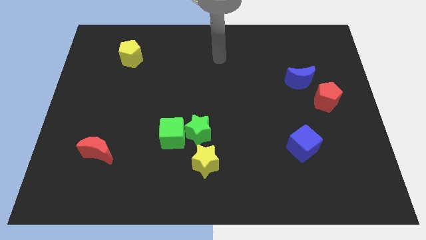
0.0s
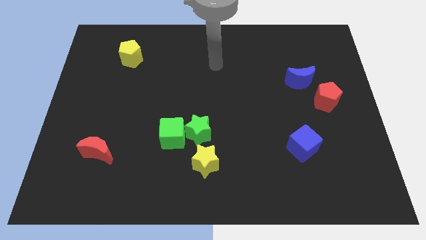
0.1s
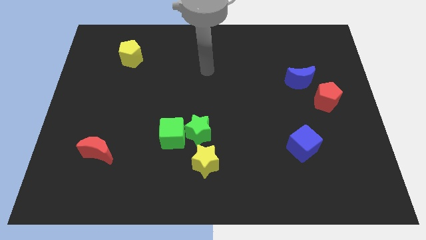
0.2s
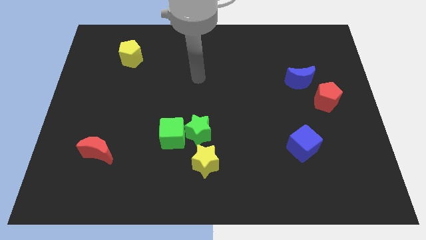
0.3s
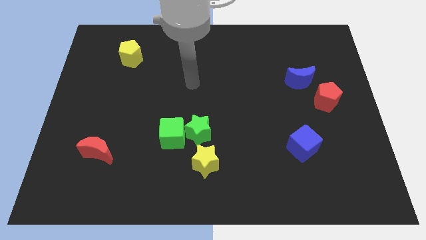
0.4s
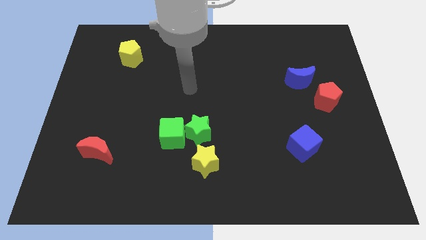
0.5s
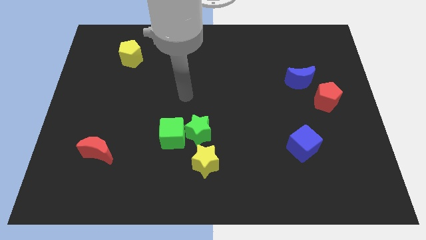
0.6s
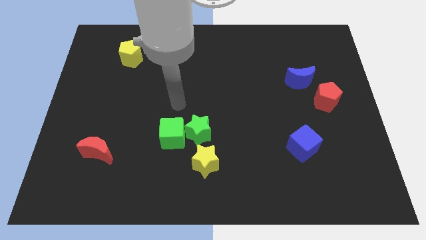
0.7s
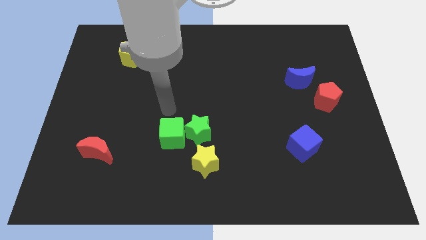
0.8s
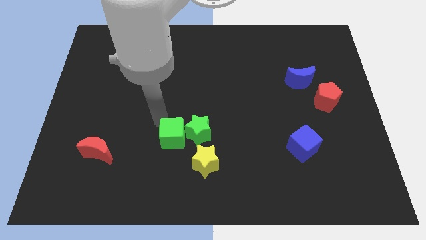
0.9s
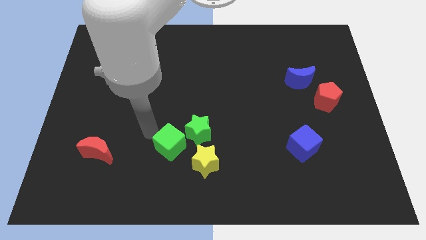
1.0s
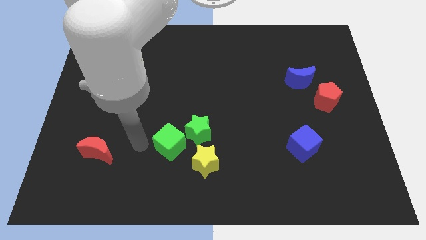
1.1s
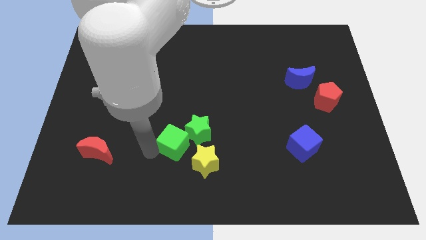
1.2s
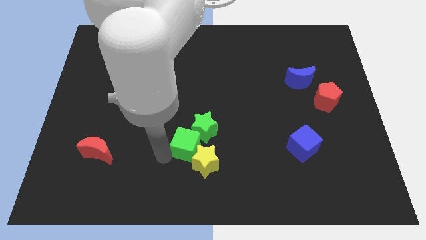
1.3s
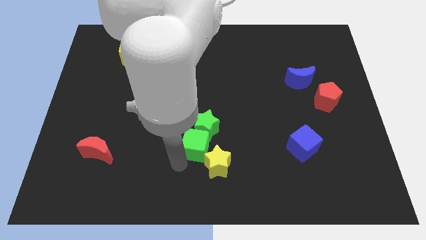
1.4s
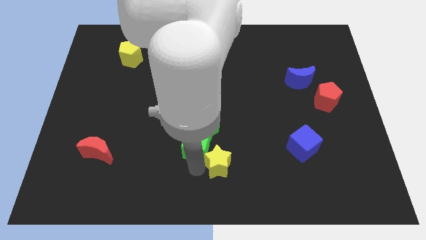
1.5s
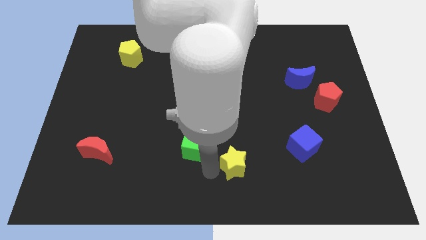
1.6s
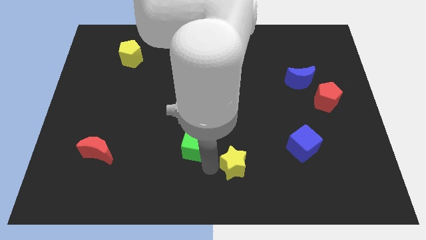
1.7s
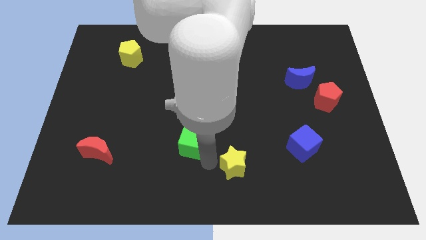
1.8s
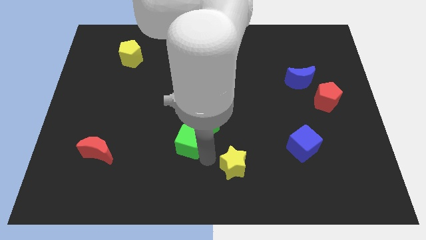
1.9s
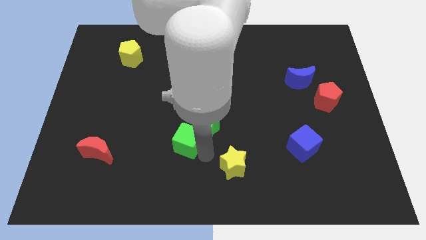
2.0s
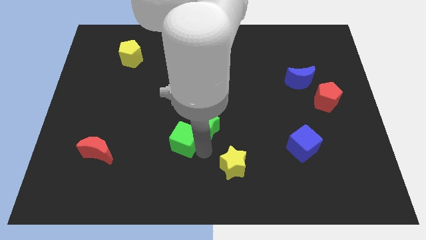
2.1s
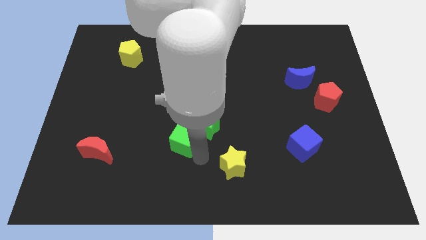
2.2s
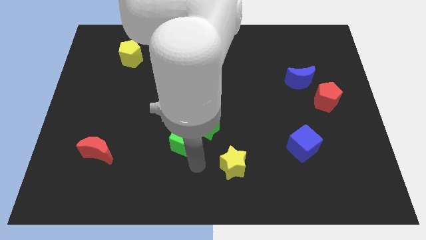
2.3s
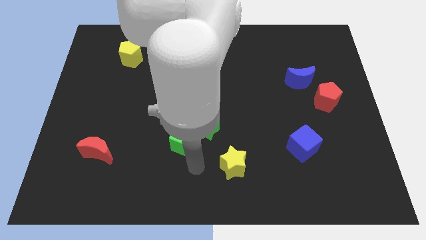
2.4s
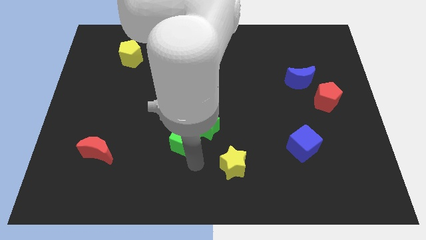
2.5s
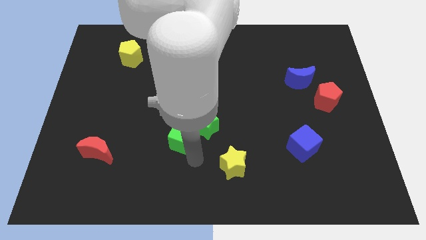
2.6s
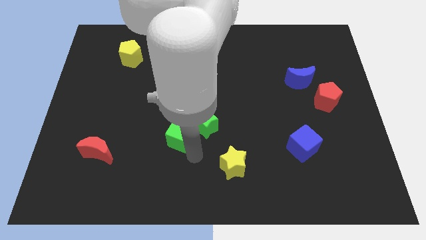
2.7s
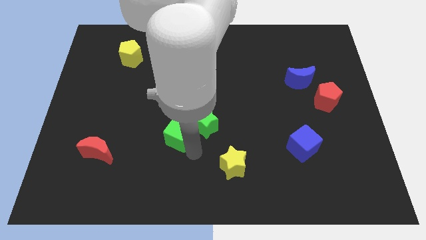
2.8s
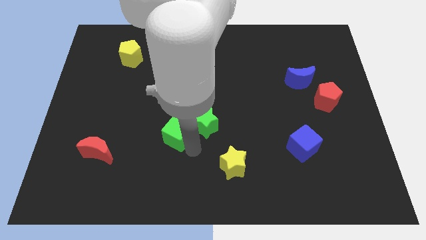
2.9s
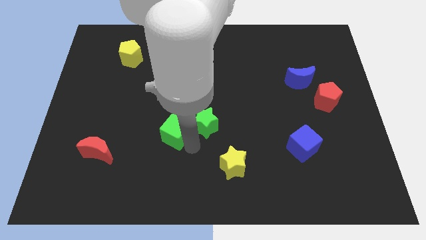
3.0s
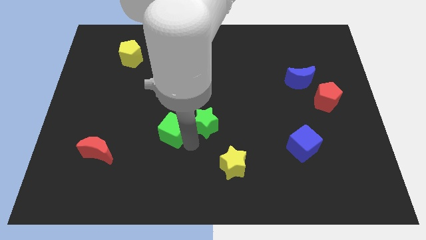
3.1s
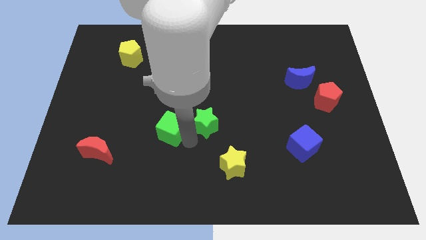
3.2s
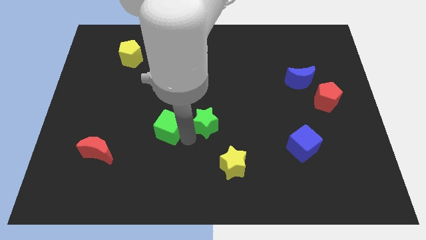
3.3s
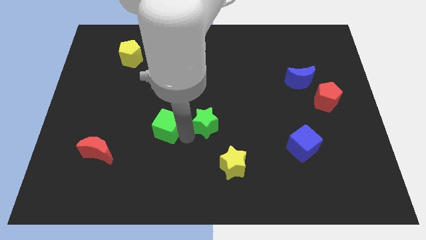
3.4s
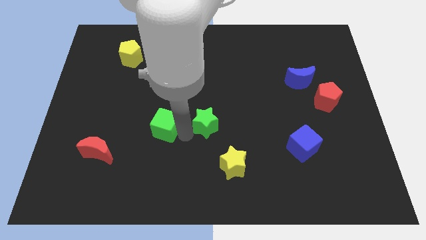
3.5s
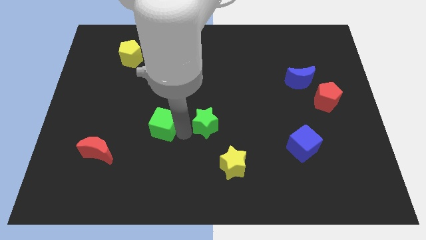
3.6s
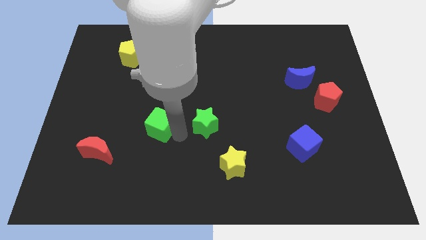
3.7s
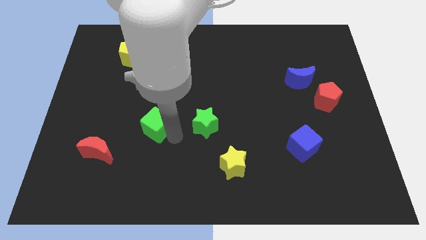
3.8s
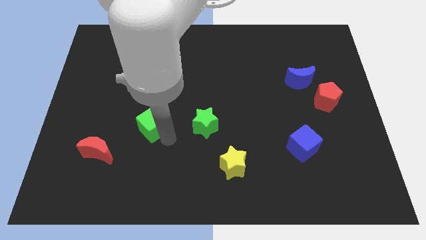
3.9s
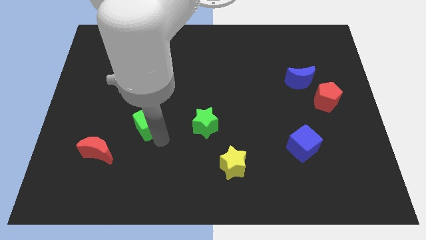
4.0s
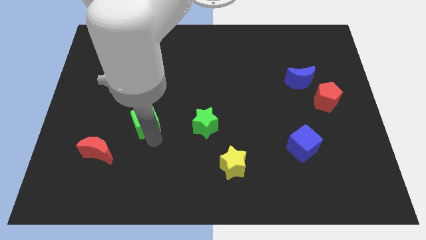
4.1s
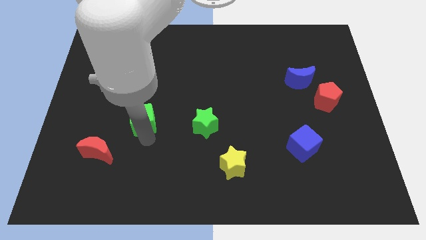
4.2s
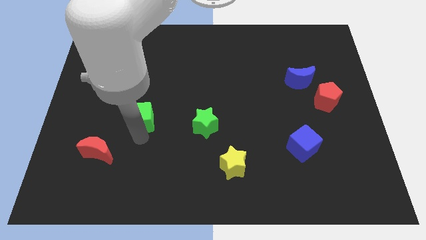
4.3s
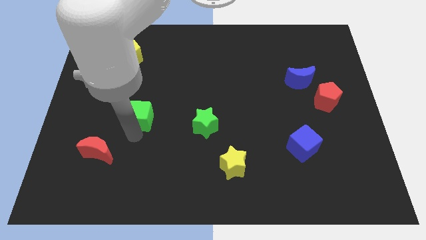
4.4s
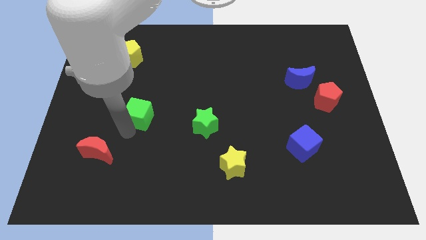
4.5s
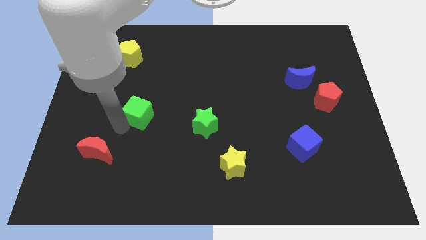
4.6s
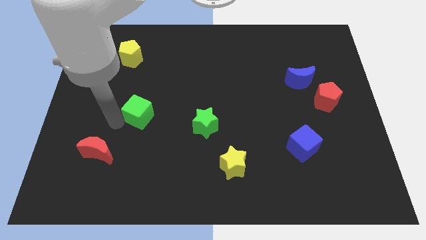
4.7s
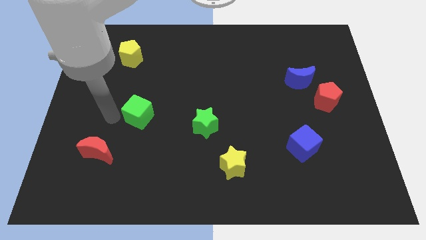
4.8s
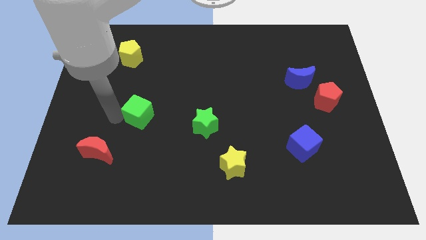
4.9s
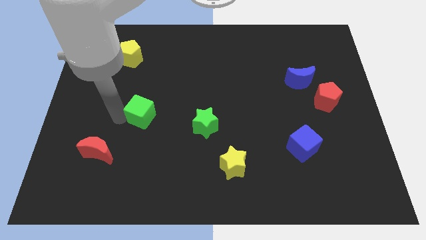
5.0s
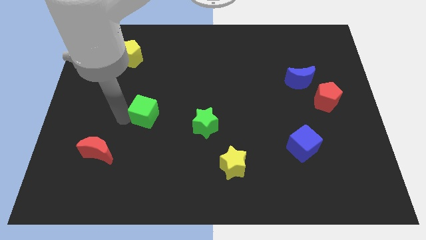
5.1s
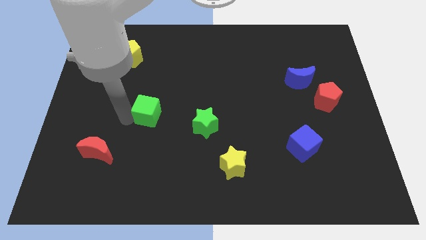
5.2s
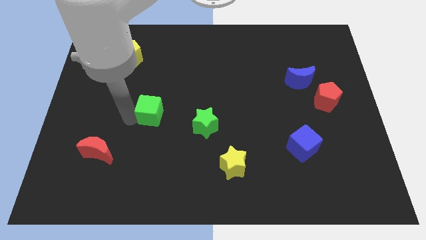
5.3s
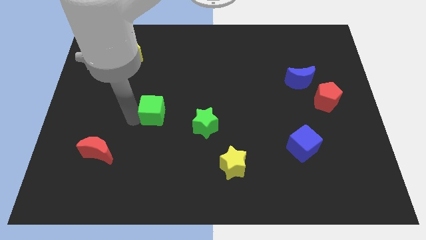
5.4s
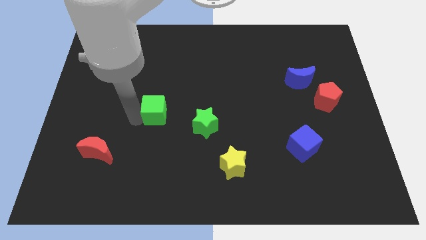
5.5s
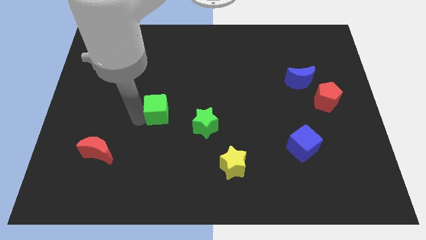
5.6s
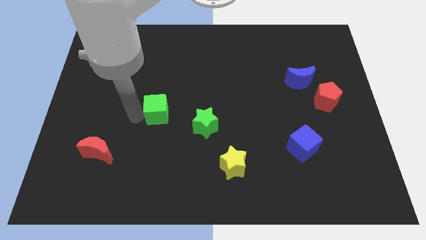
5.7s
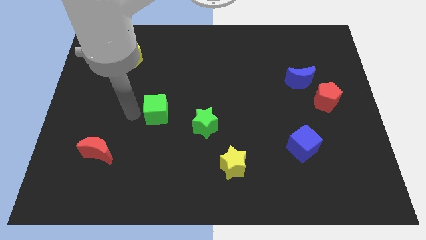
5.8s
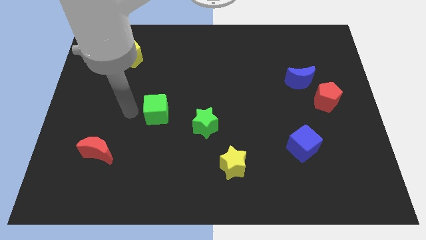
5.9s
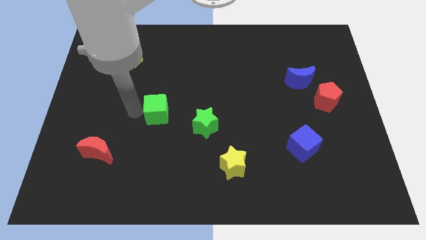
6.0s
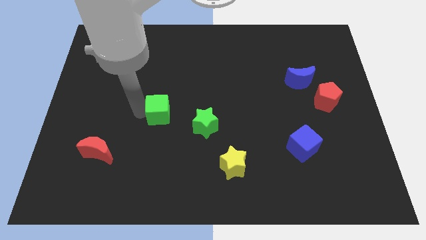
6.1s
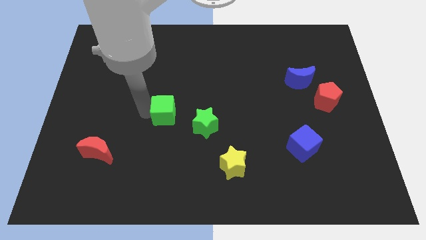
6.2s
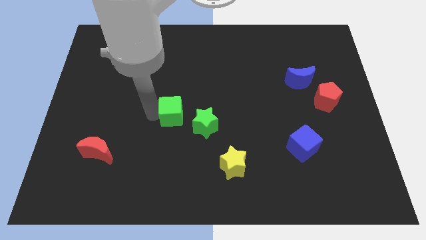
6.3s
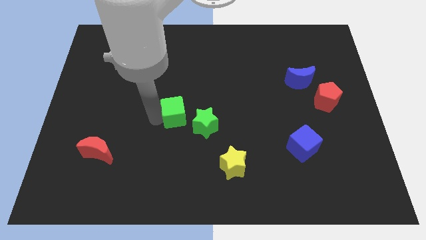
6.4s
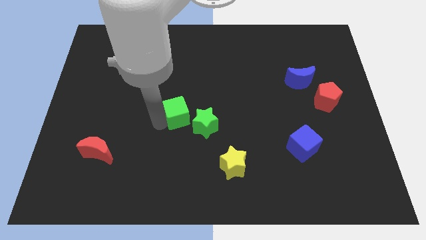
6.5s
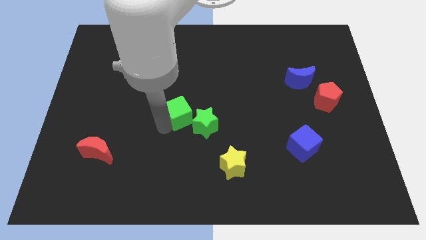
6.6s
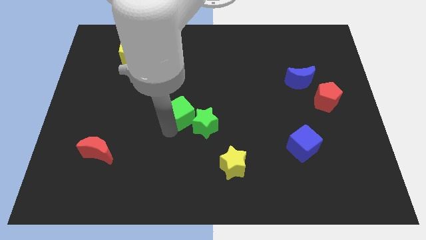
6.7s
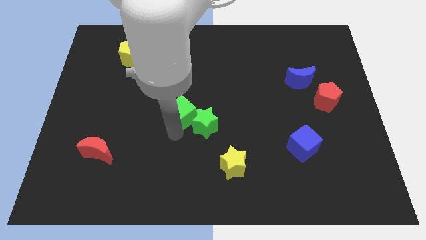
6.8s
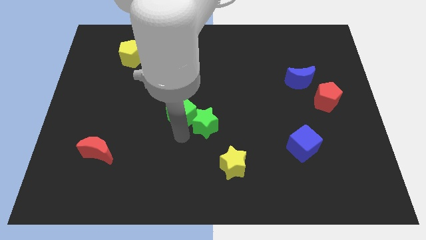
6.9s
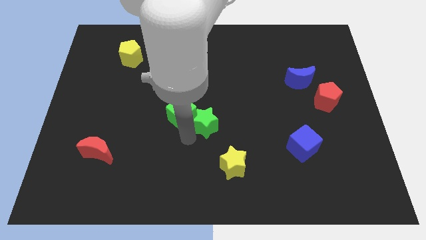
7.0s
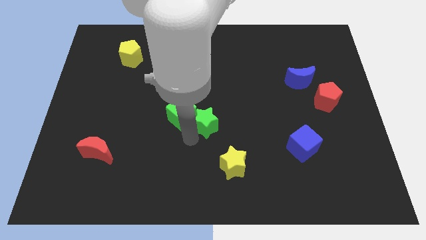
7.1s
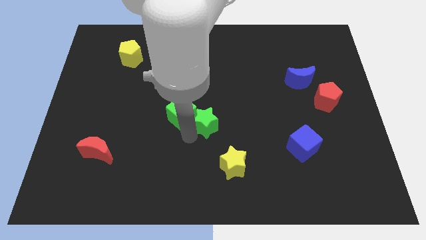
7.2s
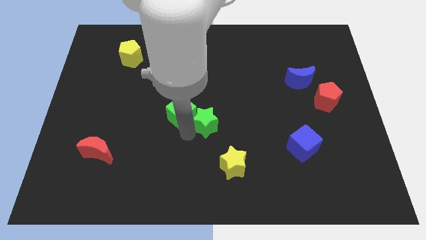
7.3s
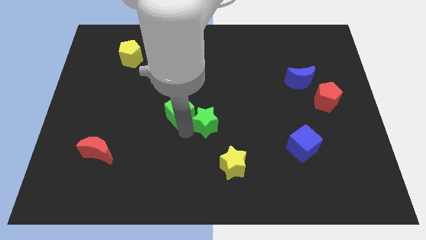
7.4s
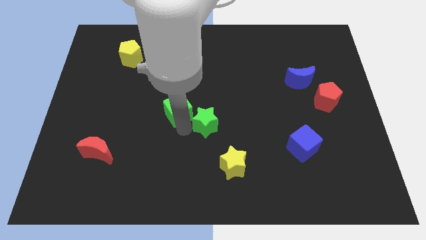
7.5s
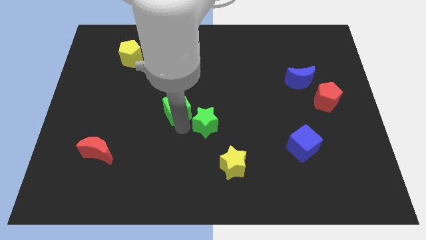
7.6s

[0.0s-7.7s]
slightly slide the green cube upwards

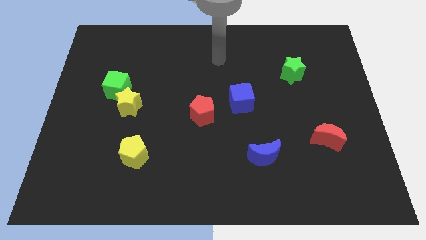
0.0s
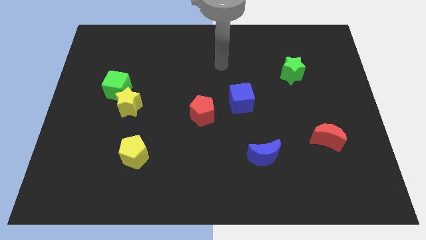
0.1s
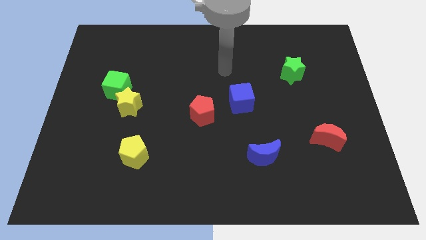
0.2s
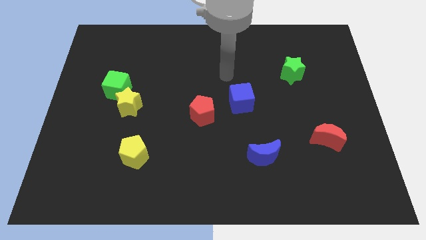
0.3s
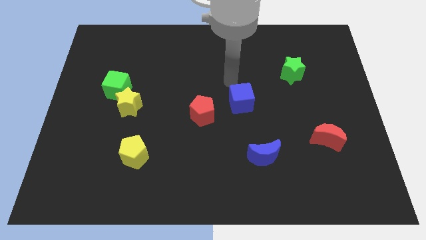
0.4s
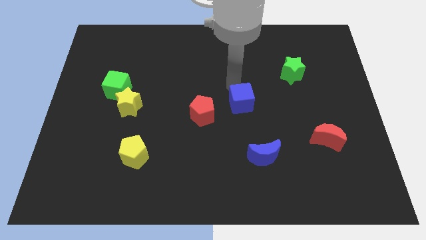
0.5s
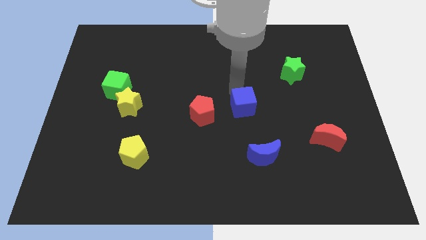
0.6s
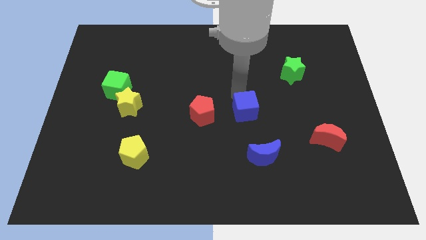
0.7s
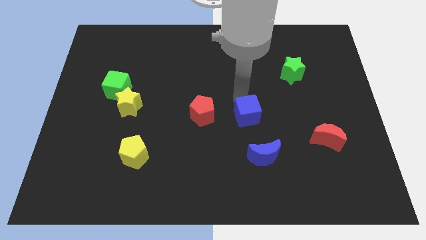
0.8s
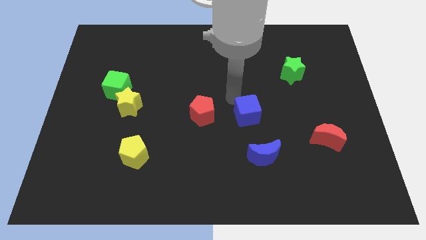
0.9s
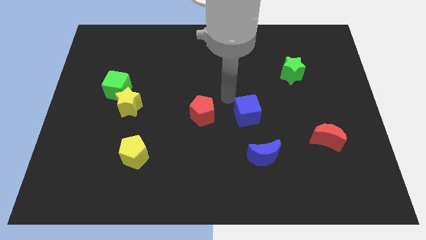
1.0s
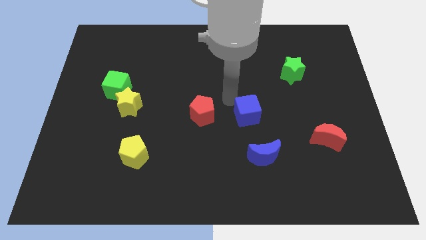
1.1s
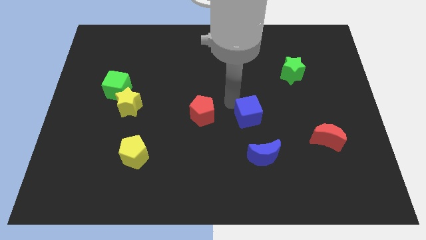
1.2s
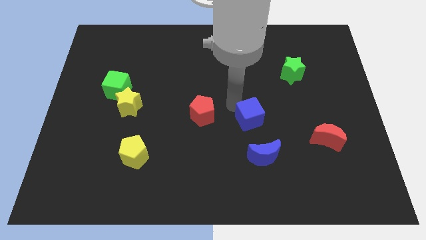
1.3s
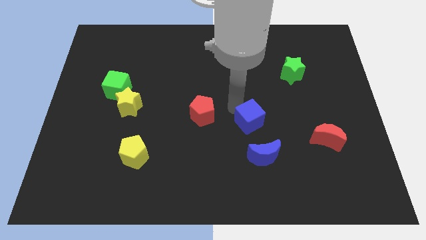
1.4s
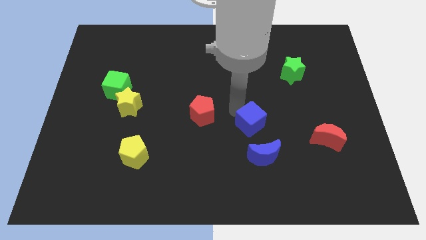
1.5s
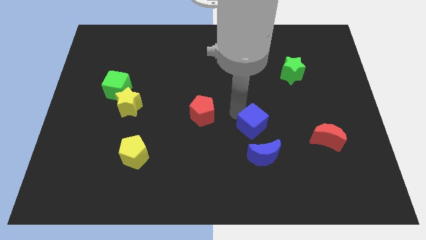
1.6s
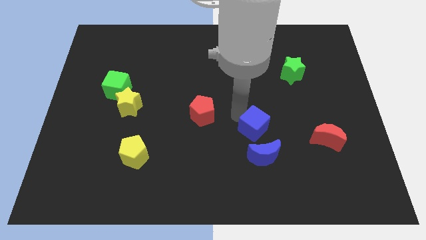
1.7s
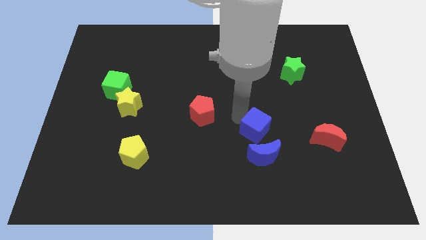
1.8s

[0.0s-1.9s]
move the blue cube down and then right somewhat
